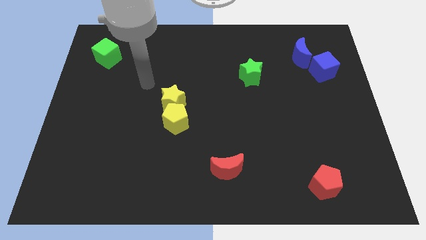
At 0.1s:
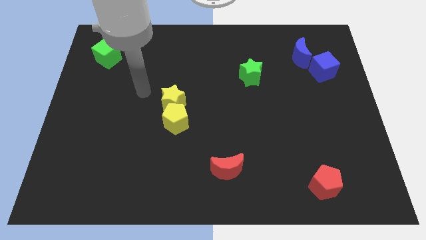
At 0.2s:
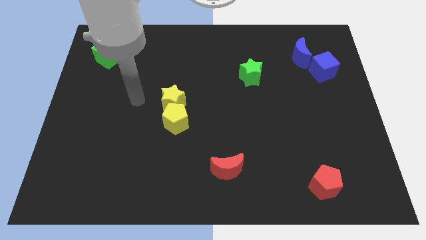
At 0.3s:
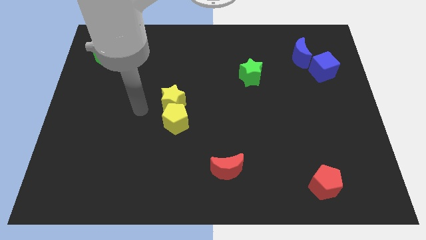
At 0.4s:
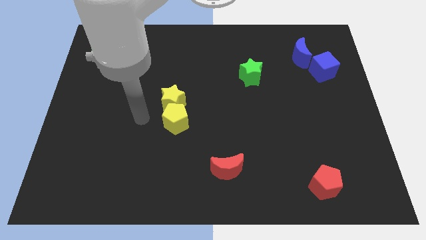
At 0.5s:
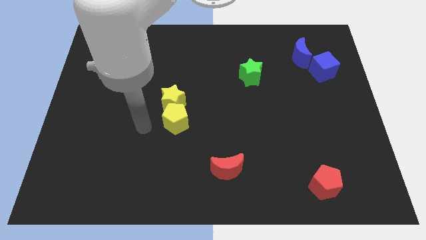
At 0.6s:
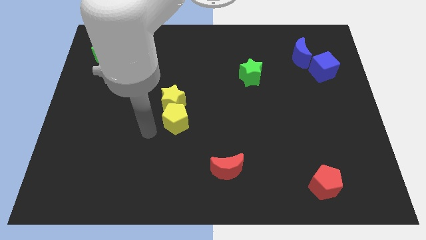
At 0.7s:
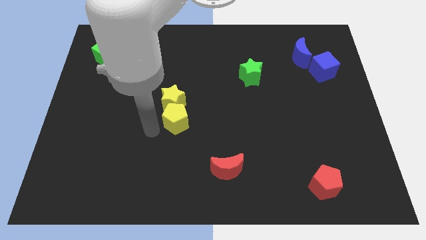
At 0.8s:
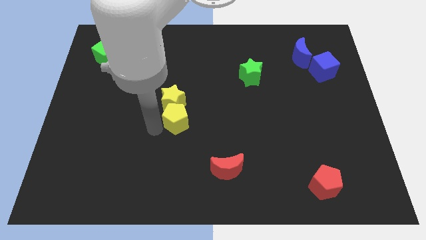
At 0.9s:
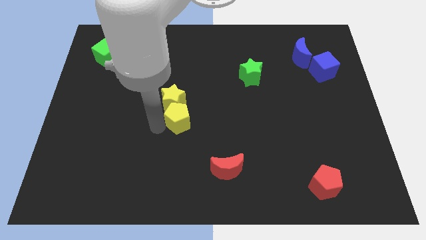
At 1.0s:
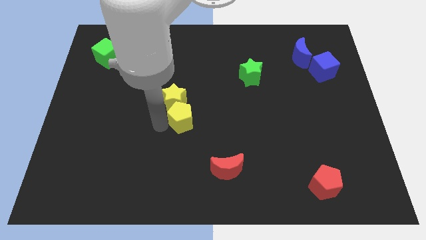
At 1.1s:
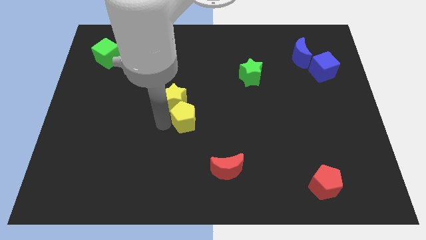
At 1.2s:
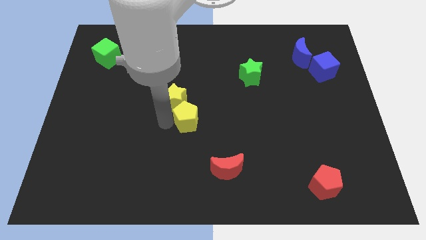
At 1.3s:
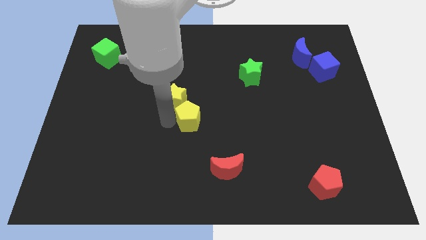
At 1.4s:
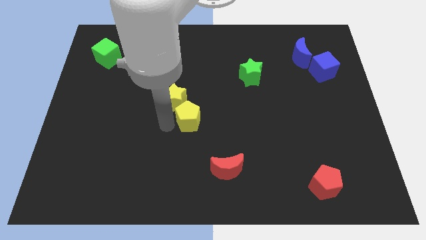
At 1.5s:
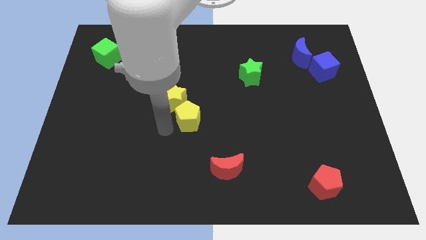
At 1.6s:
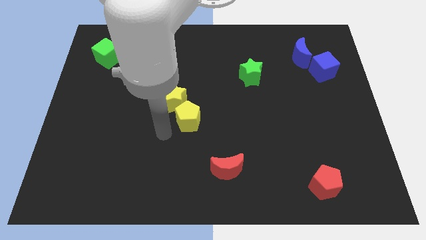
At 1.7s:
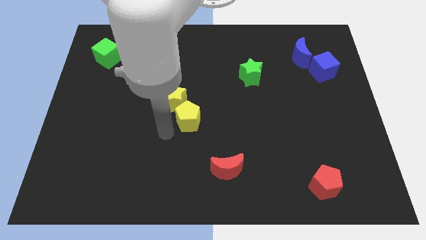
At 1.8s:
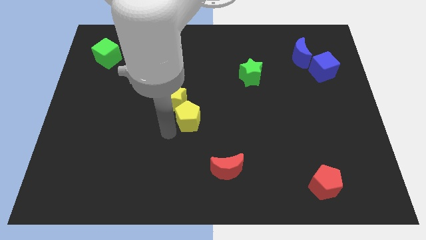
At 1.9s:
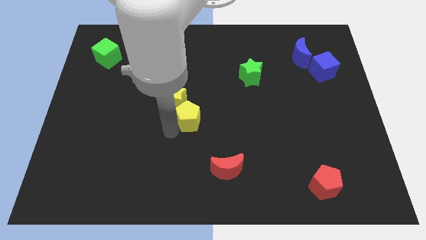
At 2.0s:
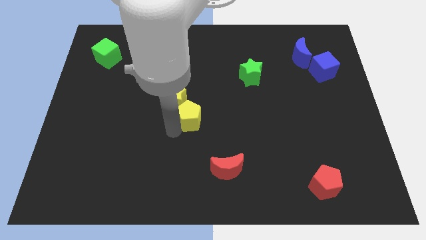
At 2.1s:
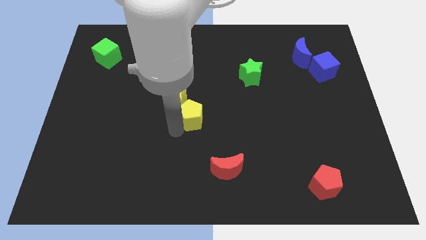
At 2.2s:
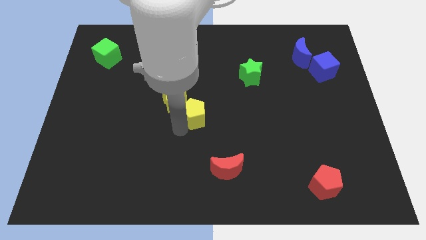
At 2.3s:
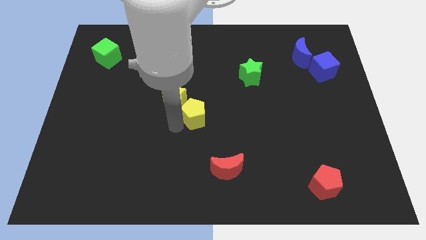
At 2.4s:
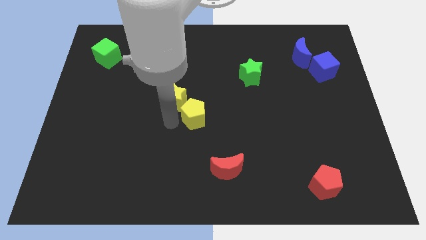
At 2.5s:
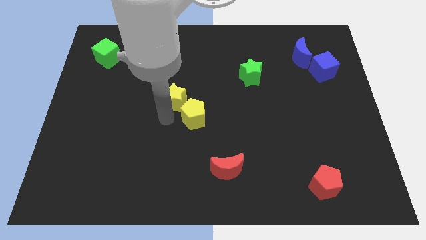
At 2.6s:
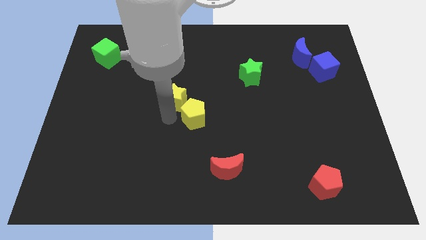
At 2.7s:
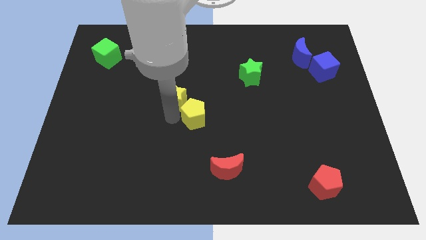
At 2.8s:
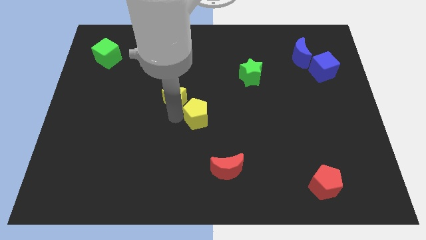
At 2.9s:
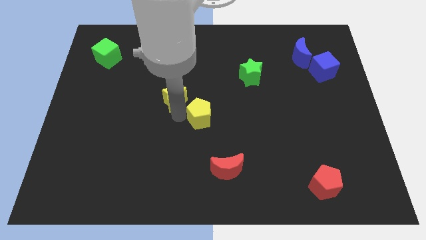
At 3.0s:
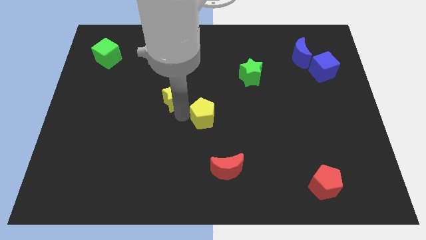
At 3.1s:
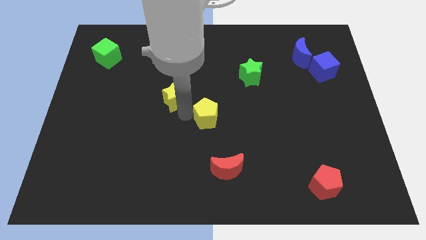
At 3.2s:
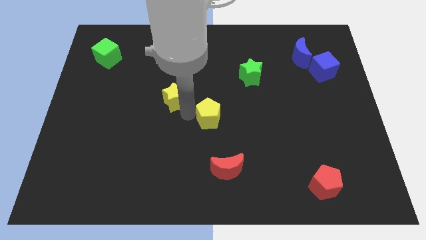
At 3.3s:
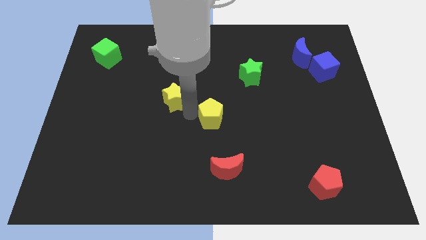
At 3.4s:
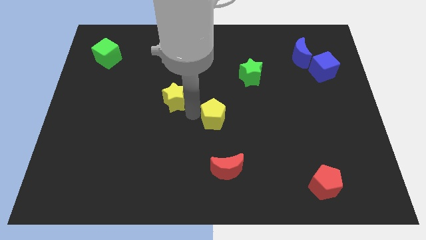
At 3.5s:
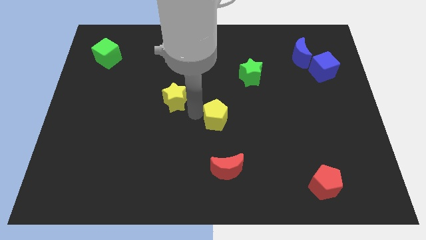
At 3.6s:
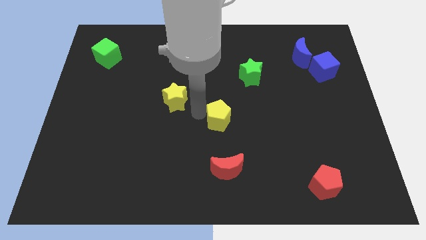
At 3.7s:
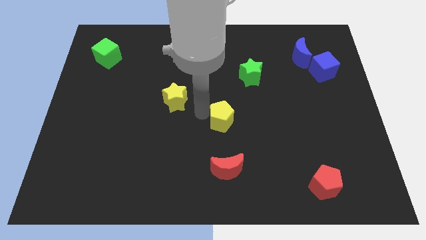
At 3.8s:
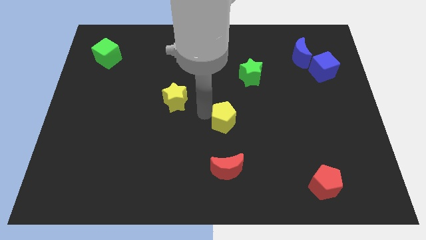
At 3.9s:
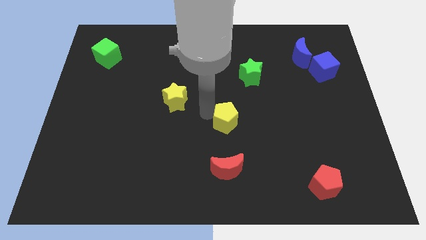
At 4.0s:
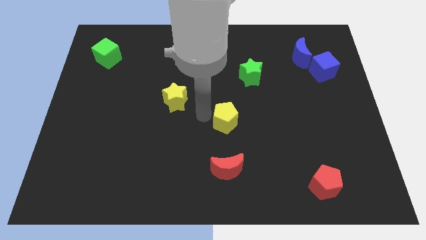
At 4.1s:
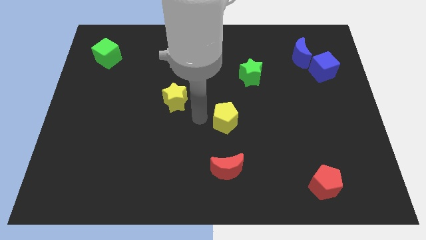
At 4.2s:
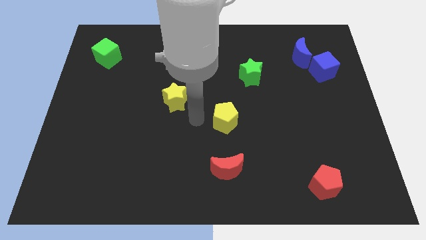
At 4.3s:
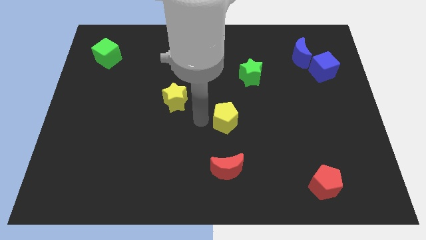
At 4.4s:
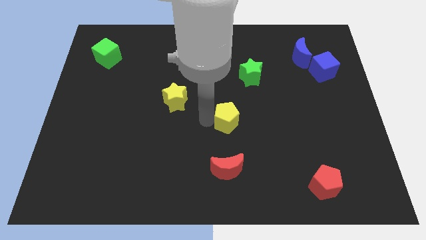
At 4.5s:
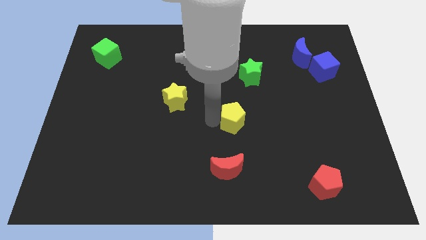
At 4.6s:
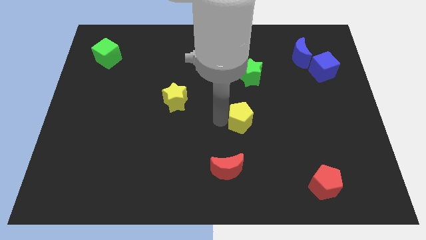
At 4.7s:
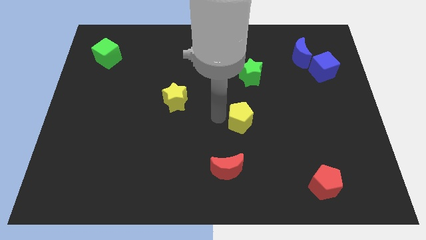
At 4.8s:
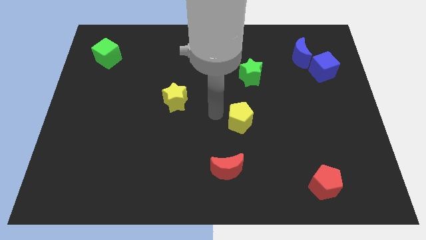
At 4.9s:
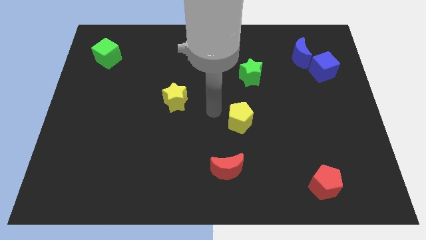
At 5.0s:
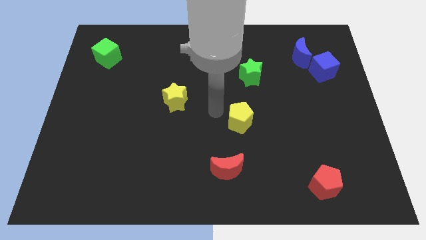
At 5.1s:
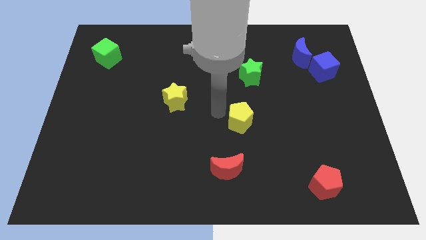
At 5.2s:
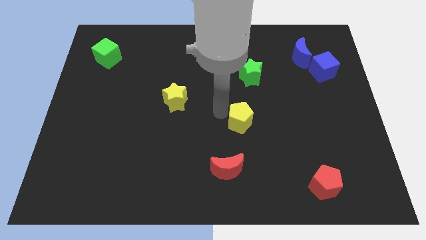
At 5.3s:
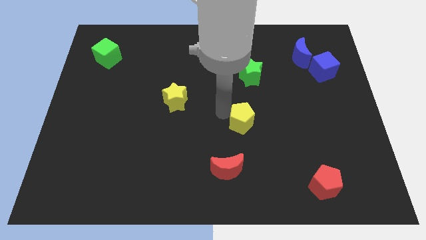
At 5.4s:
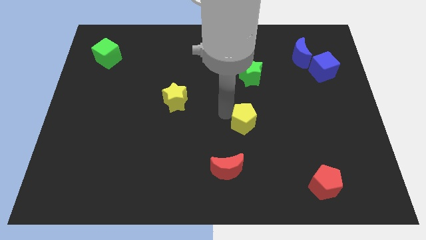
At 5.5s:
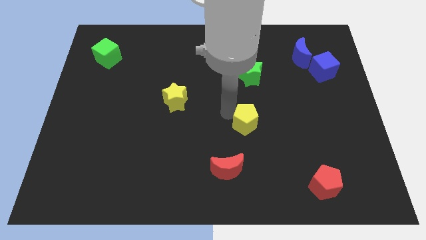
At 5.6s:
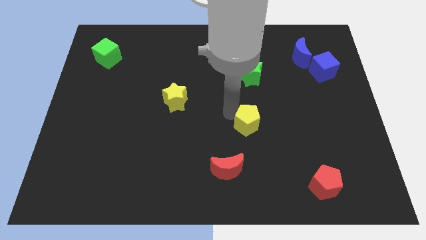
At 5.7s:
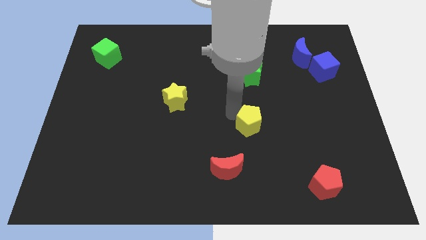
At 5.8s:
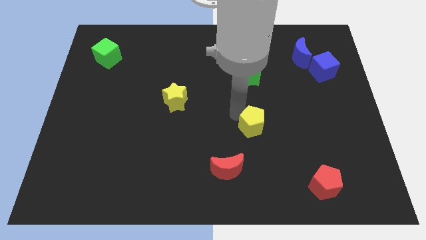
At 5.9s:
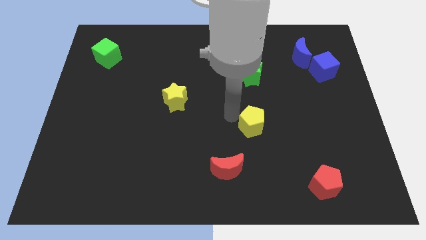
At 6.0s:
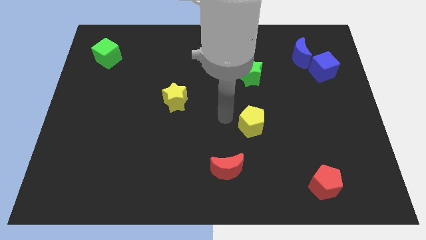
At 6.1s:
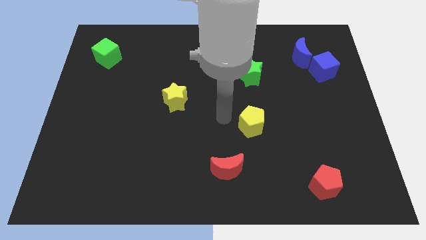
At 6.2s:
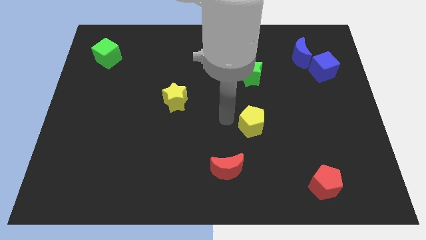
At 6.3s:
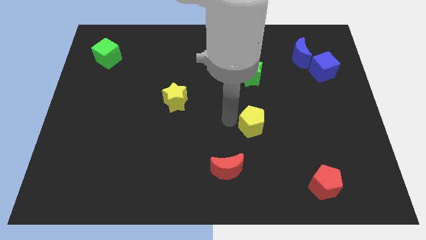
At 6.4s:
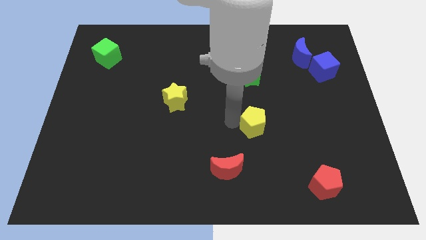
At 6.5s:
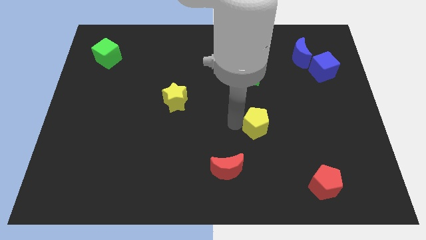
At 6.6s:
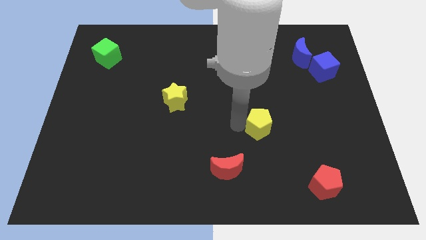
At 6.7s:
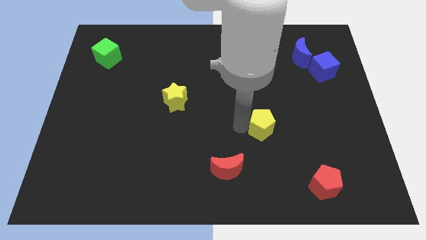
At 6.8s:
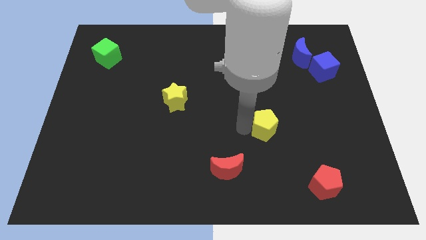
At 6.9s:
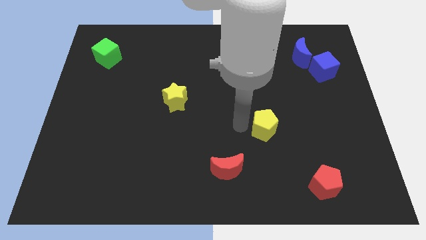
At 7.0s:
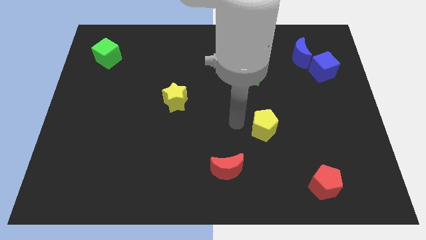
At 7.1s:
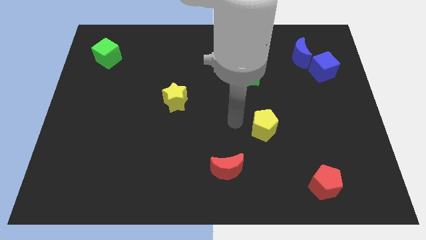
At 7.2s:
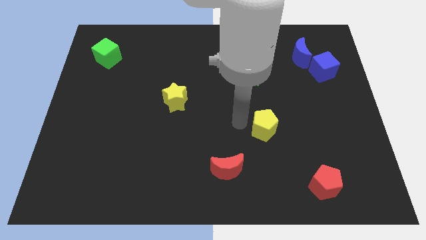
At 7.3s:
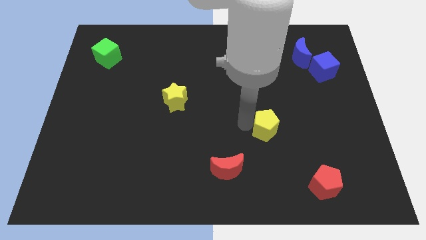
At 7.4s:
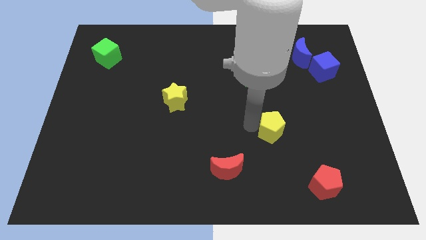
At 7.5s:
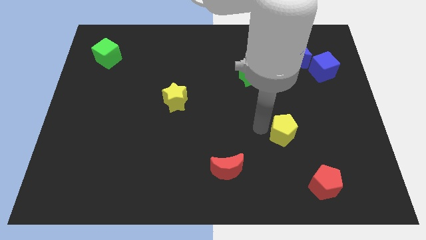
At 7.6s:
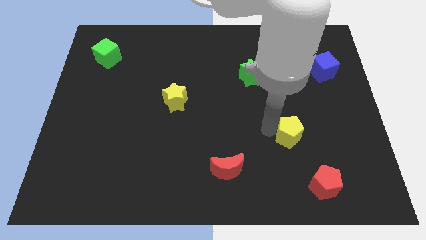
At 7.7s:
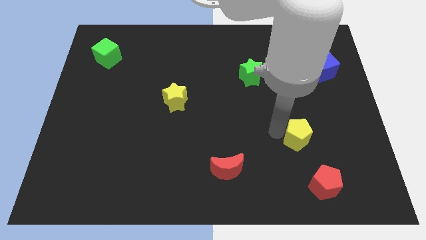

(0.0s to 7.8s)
move the yellow pentagon to the top side of the red pentagon
